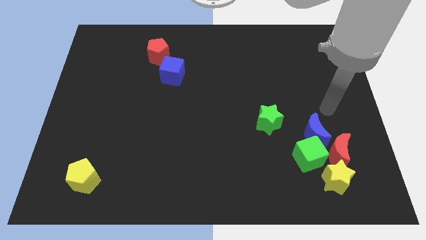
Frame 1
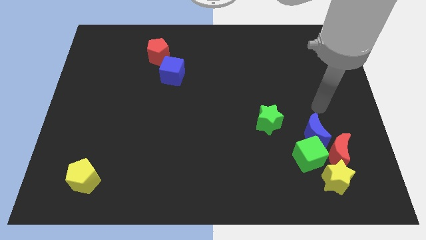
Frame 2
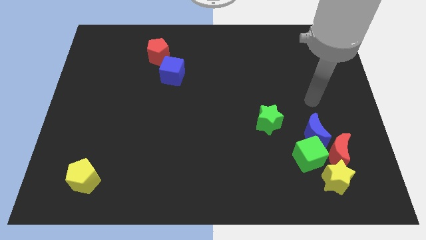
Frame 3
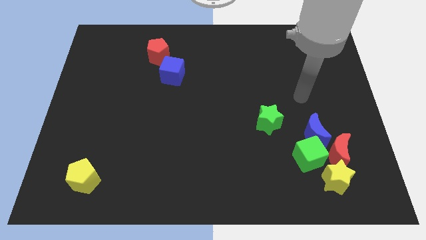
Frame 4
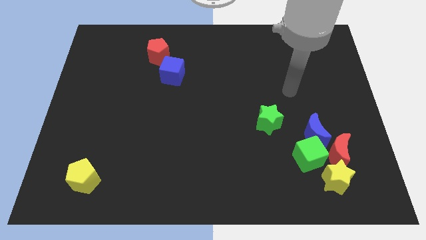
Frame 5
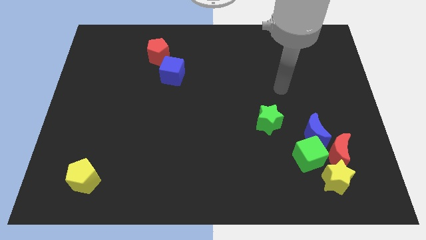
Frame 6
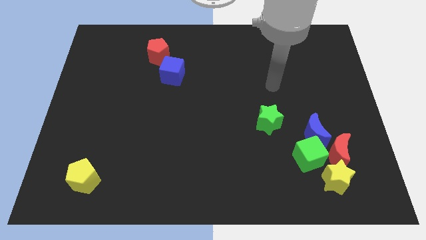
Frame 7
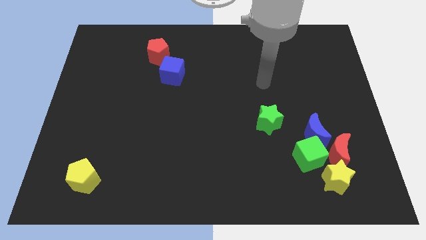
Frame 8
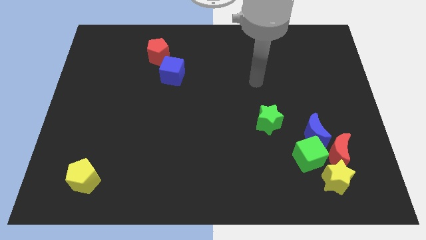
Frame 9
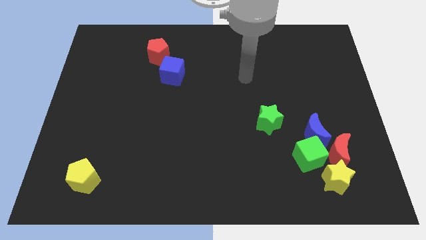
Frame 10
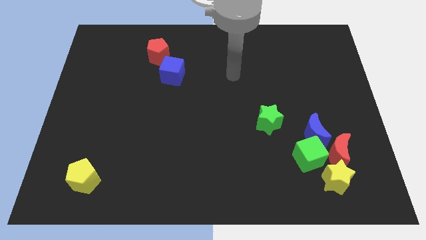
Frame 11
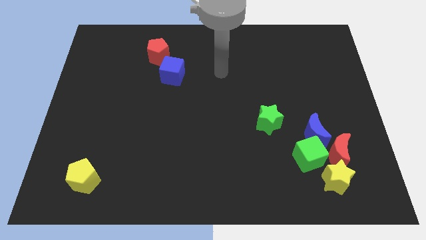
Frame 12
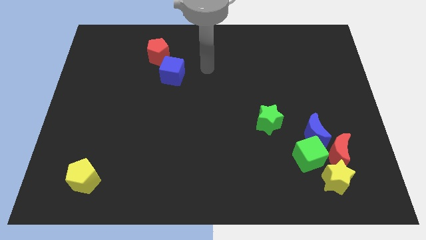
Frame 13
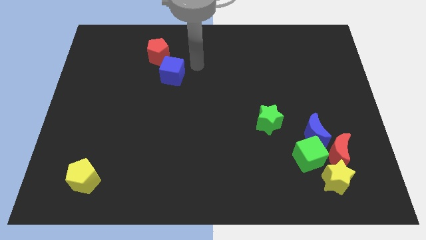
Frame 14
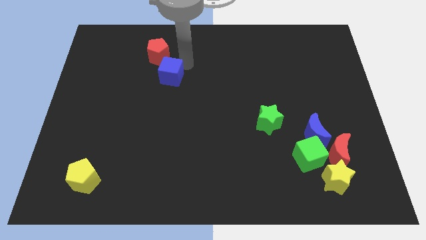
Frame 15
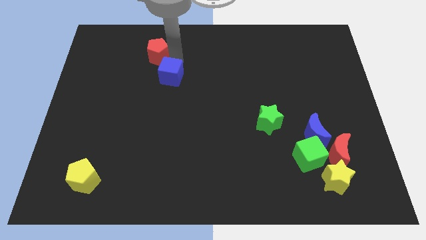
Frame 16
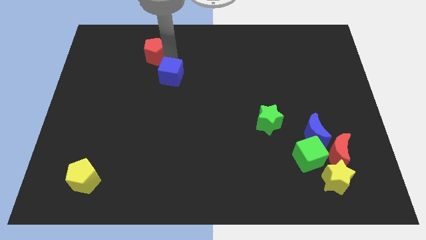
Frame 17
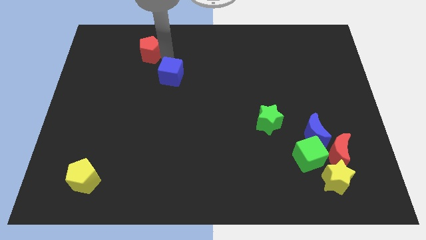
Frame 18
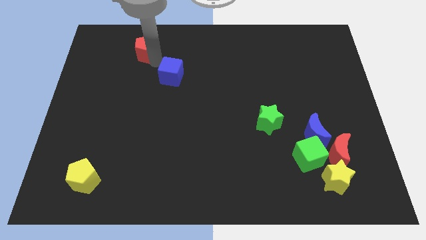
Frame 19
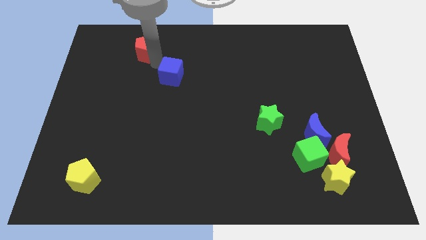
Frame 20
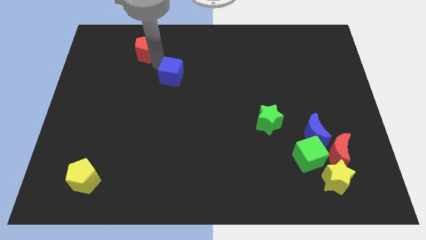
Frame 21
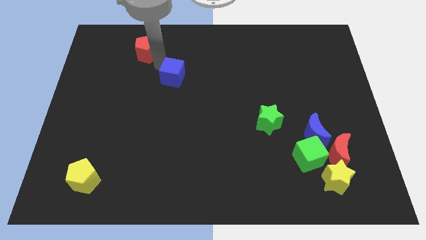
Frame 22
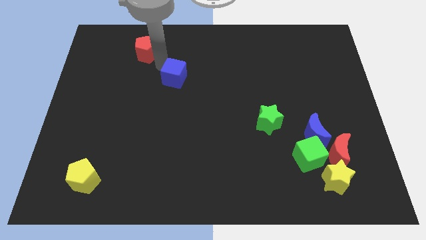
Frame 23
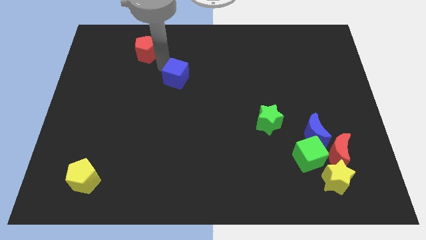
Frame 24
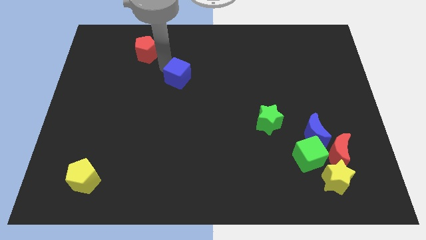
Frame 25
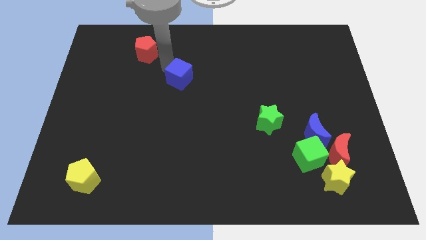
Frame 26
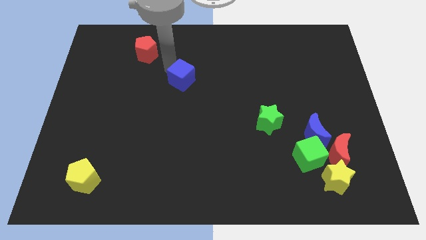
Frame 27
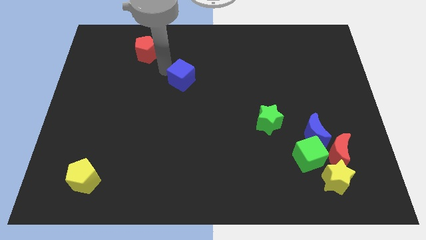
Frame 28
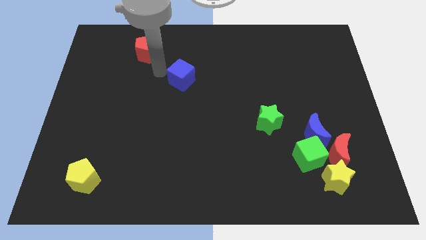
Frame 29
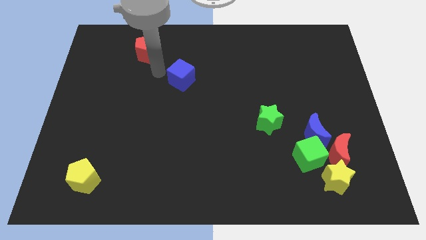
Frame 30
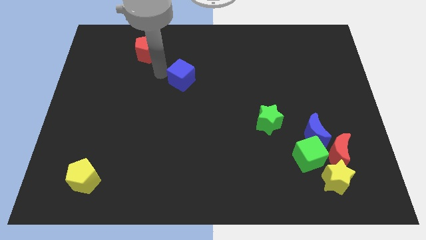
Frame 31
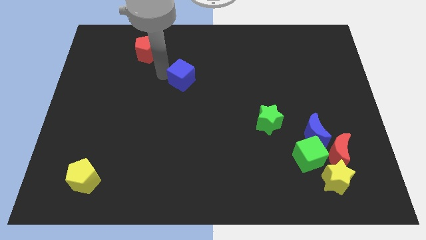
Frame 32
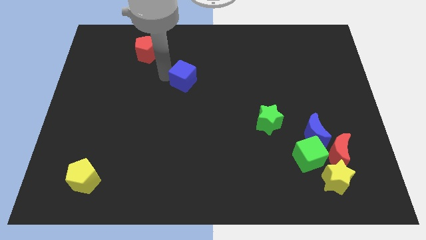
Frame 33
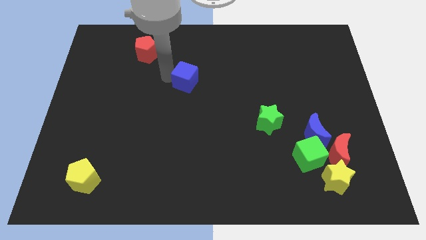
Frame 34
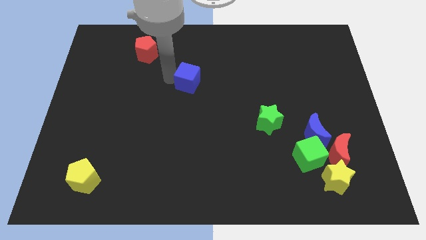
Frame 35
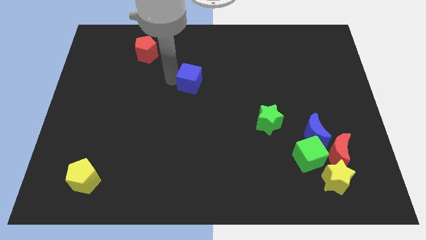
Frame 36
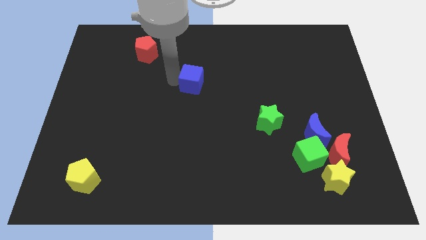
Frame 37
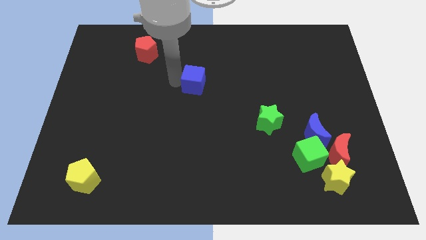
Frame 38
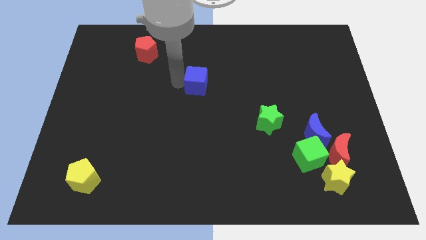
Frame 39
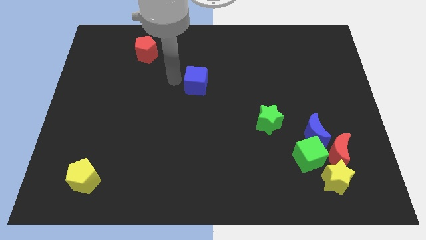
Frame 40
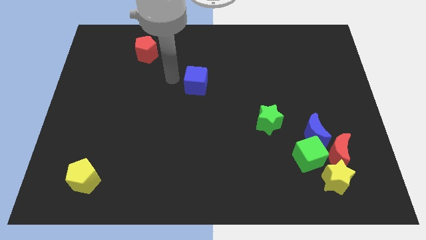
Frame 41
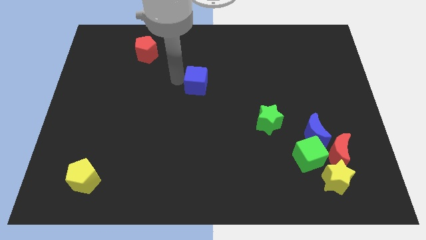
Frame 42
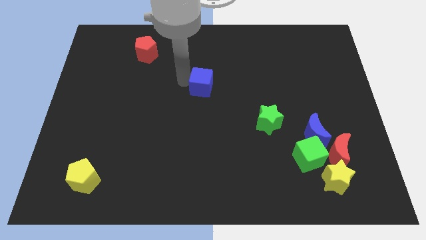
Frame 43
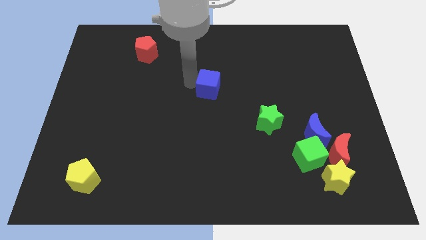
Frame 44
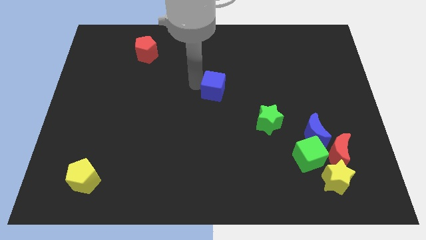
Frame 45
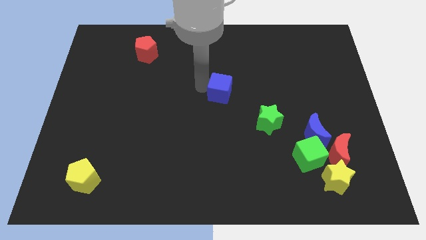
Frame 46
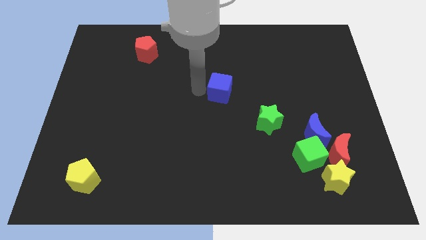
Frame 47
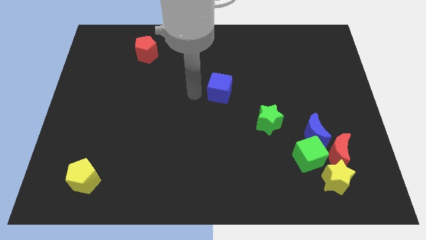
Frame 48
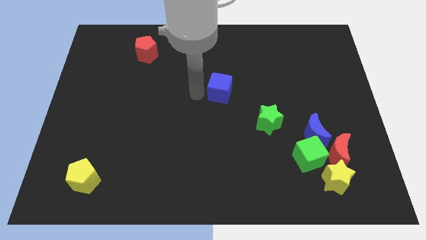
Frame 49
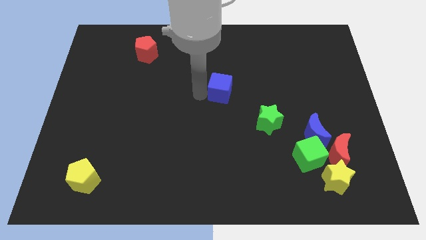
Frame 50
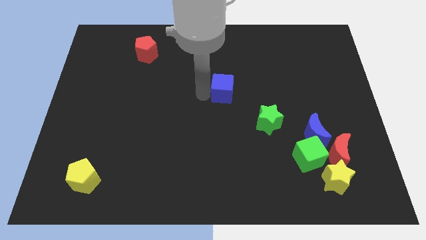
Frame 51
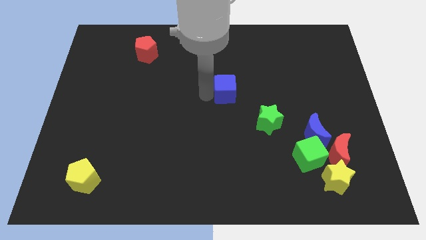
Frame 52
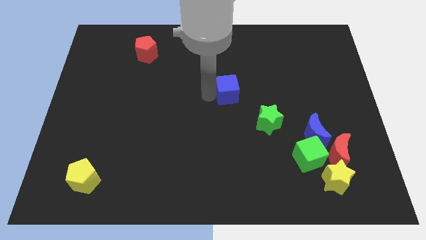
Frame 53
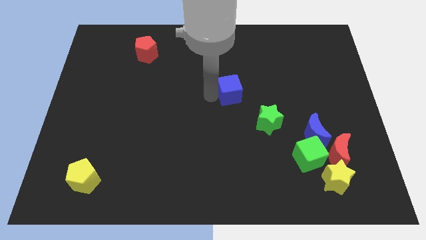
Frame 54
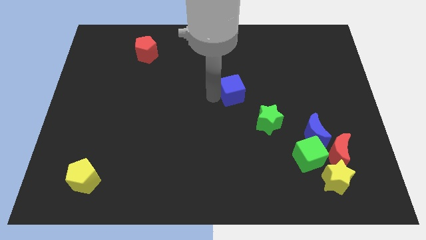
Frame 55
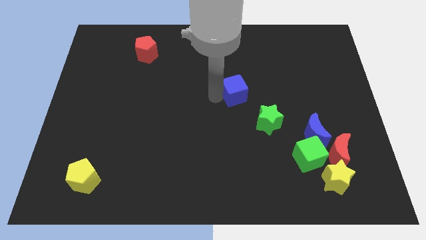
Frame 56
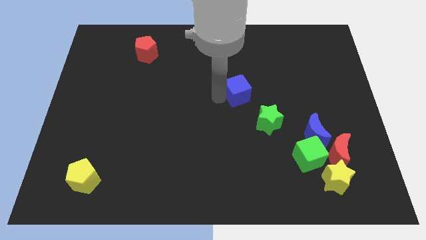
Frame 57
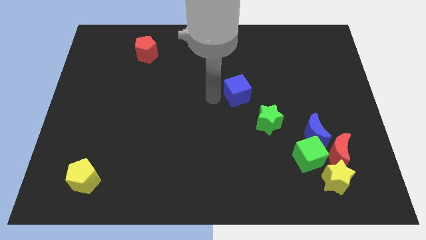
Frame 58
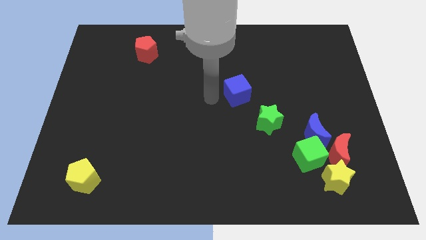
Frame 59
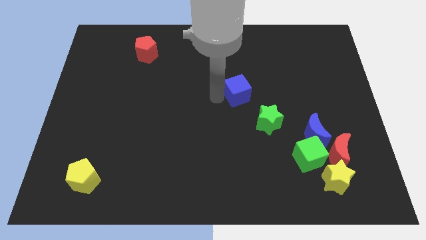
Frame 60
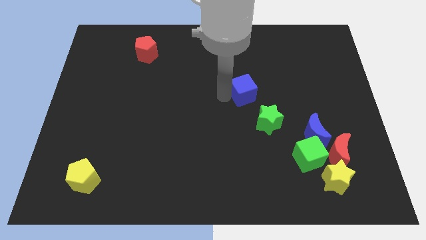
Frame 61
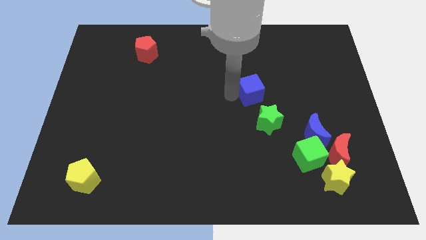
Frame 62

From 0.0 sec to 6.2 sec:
slide the blue cube above the green star

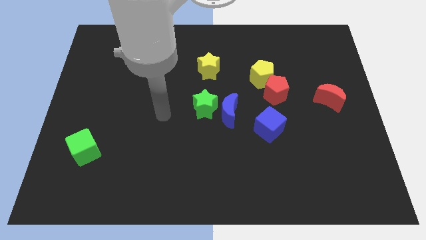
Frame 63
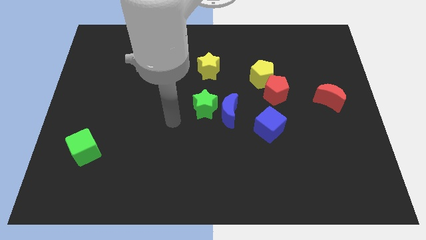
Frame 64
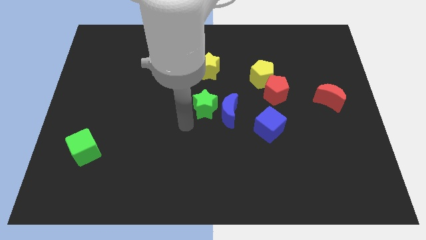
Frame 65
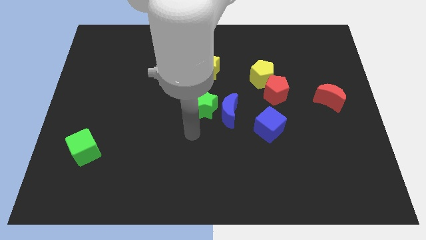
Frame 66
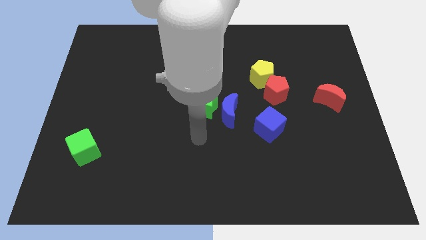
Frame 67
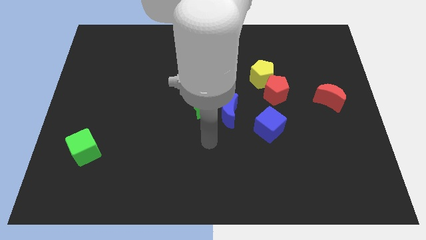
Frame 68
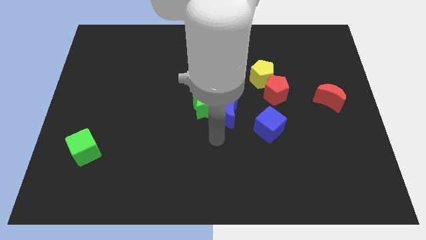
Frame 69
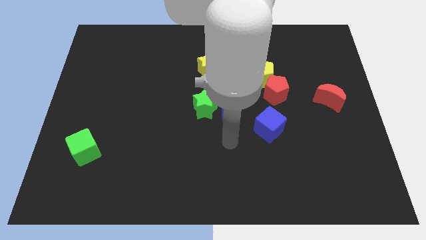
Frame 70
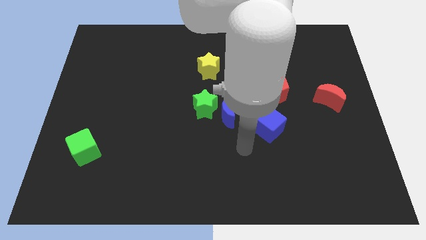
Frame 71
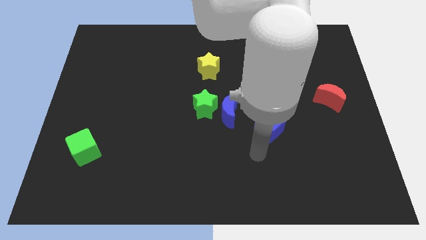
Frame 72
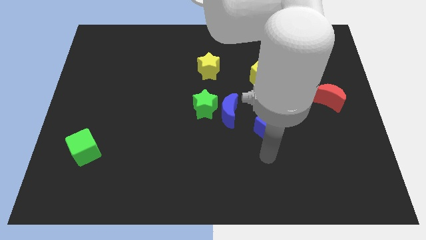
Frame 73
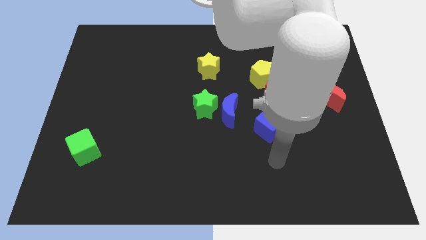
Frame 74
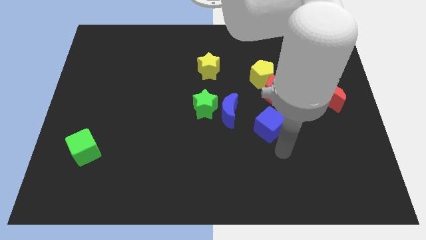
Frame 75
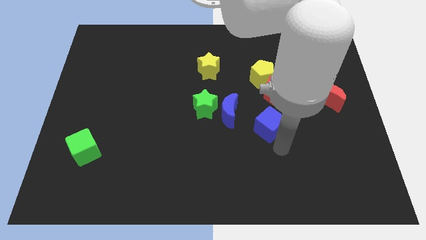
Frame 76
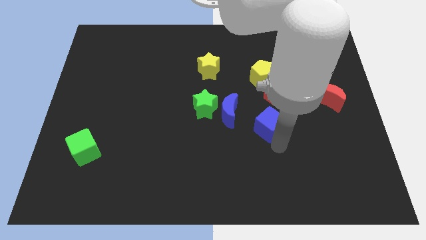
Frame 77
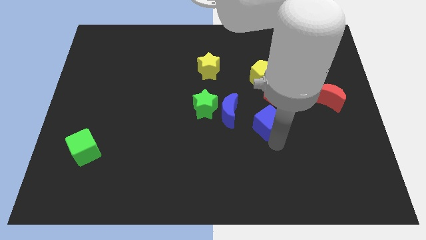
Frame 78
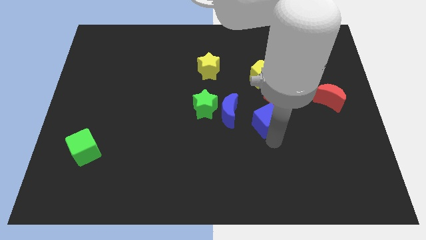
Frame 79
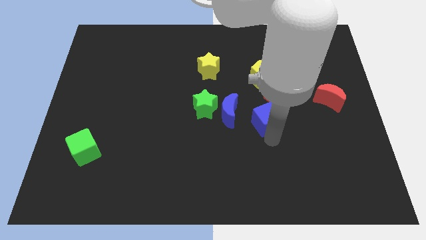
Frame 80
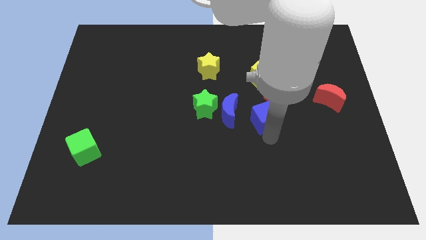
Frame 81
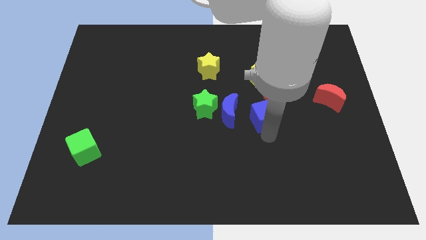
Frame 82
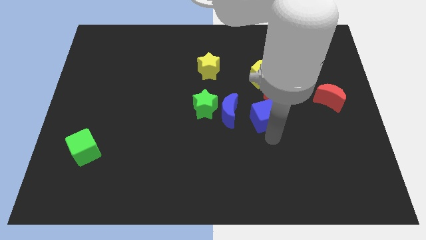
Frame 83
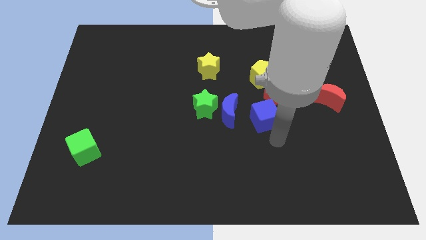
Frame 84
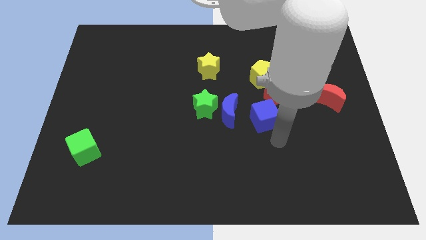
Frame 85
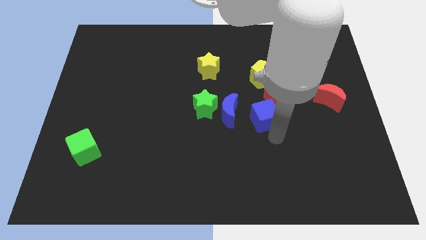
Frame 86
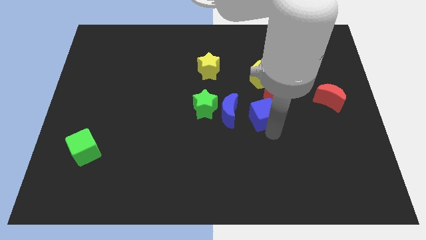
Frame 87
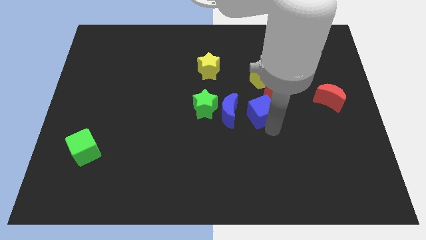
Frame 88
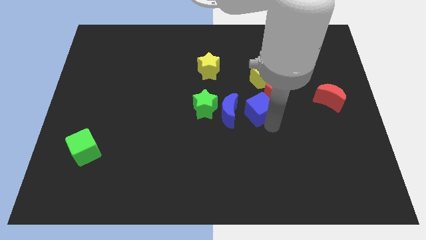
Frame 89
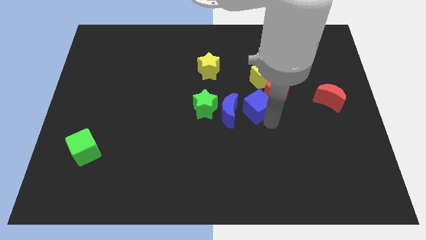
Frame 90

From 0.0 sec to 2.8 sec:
move the blue cube left of the red pentagon
